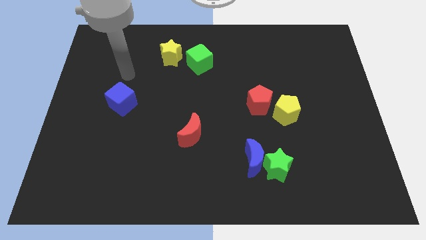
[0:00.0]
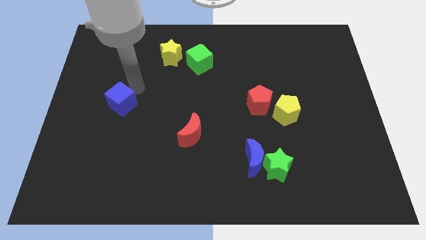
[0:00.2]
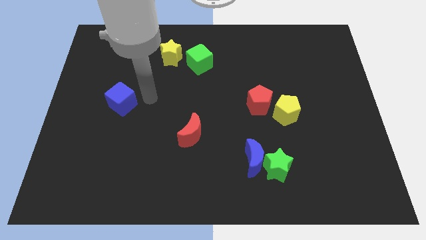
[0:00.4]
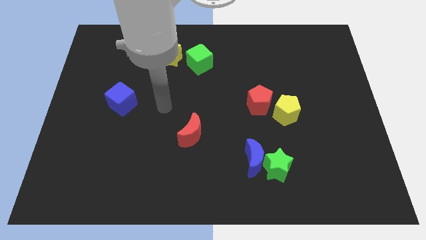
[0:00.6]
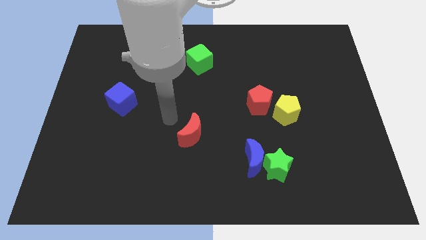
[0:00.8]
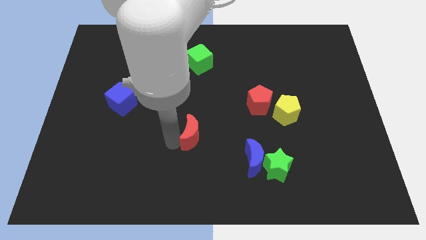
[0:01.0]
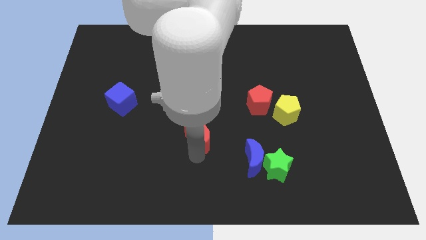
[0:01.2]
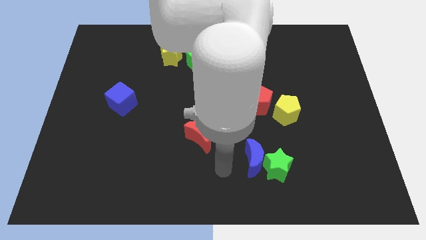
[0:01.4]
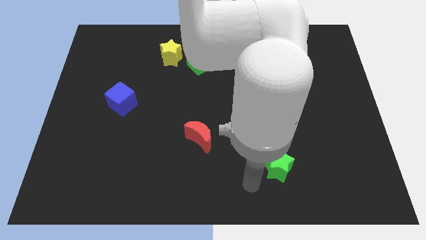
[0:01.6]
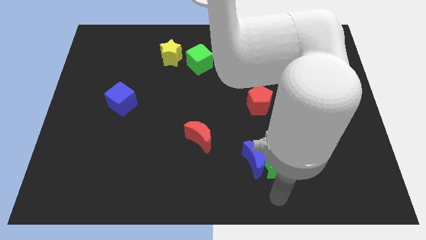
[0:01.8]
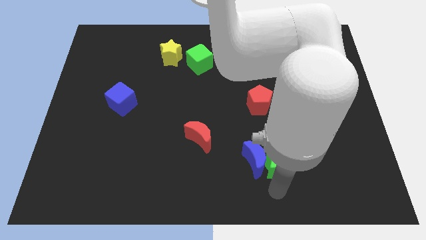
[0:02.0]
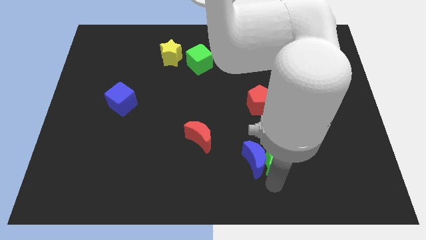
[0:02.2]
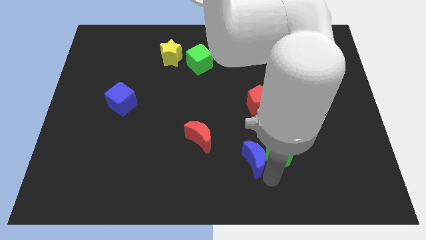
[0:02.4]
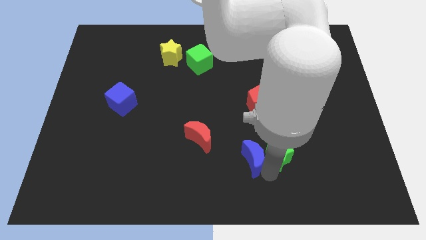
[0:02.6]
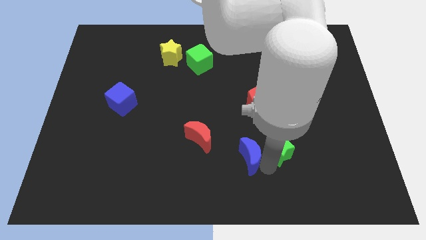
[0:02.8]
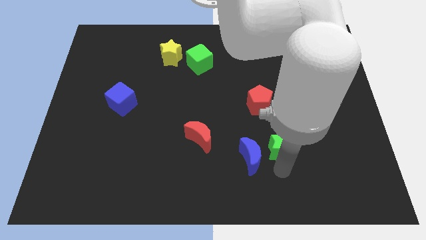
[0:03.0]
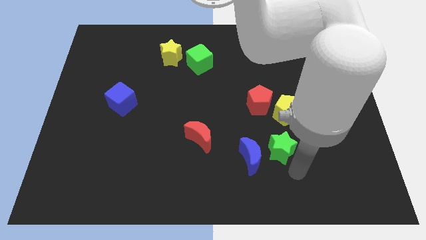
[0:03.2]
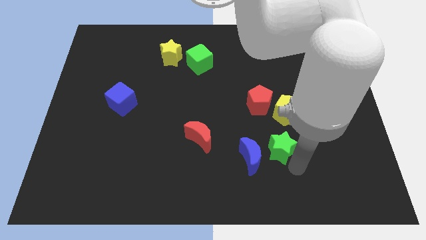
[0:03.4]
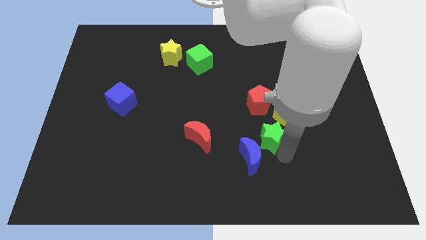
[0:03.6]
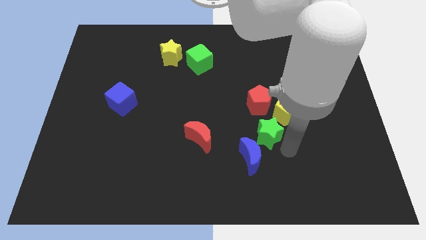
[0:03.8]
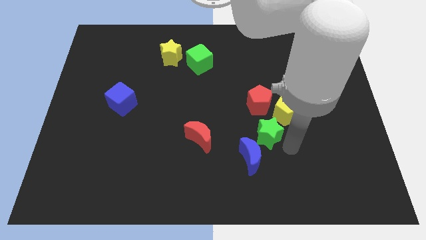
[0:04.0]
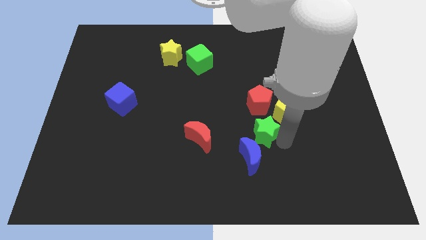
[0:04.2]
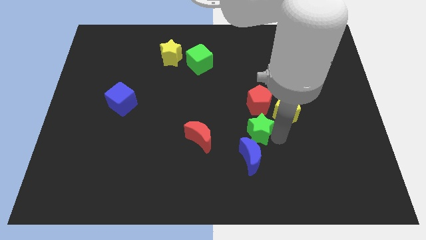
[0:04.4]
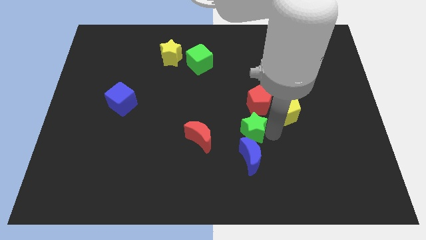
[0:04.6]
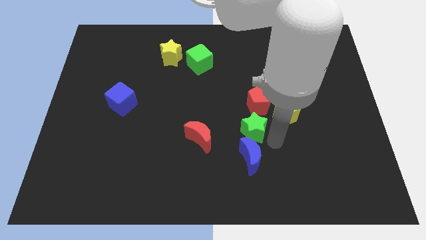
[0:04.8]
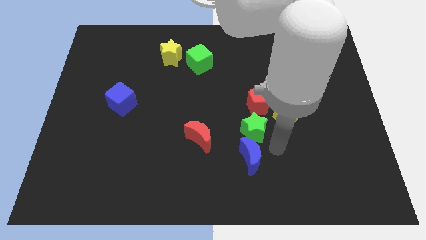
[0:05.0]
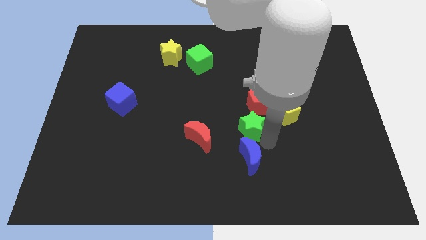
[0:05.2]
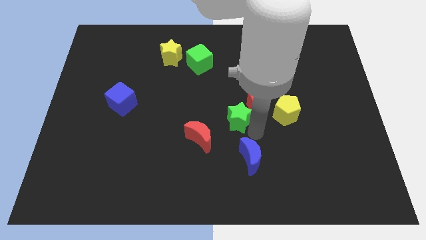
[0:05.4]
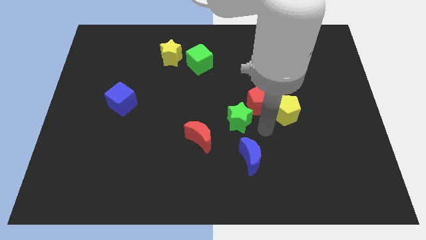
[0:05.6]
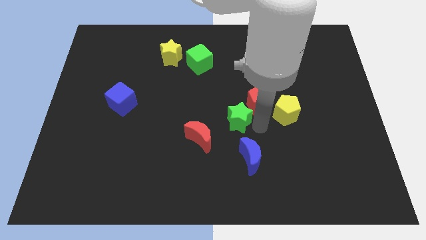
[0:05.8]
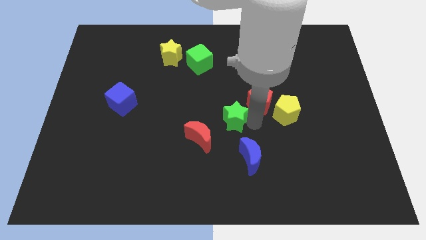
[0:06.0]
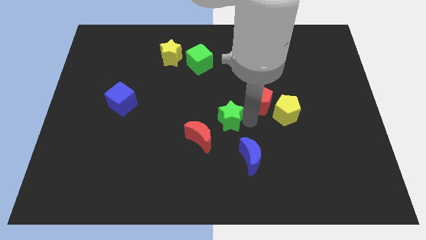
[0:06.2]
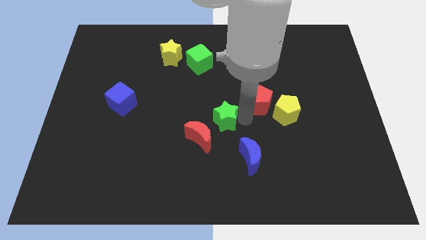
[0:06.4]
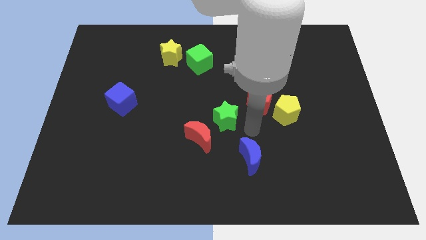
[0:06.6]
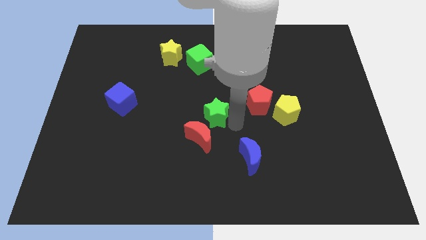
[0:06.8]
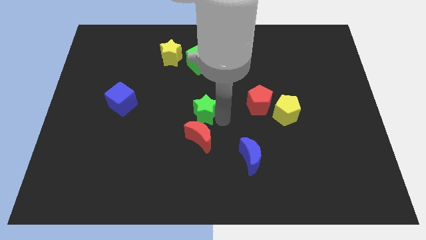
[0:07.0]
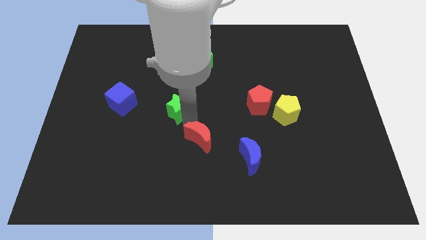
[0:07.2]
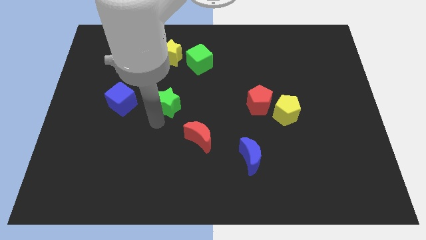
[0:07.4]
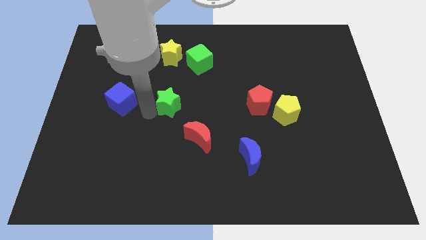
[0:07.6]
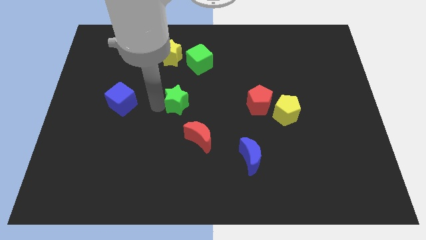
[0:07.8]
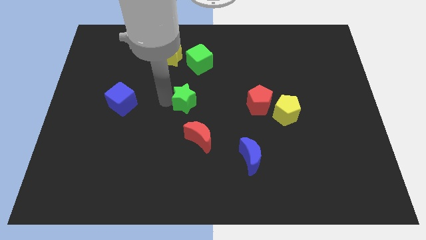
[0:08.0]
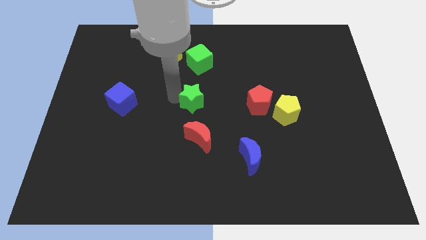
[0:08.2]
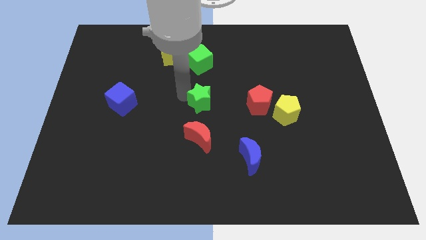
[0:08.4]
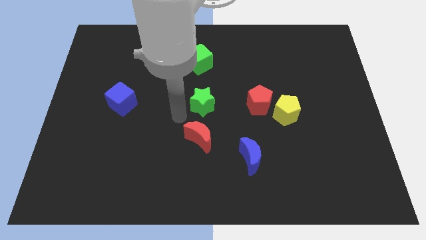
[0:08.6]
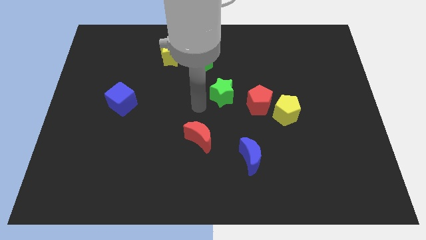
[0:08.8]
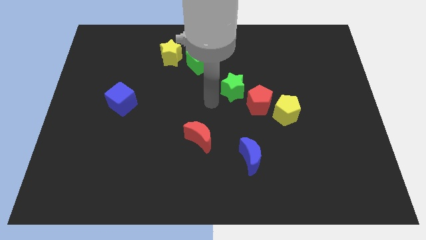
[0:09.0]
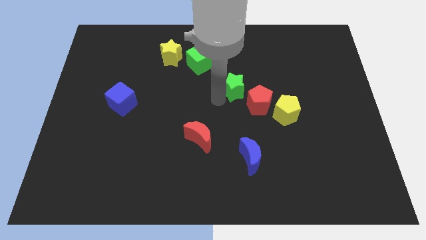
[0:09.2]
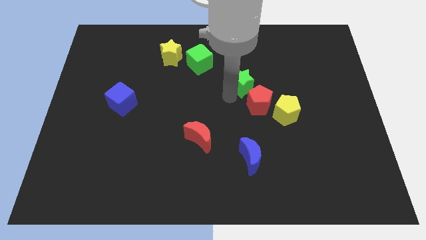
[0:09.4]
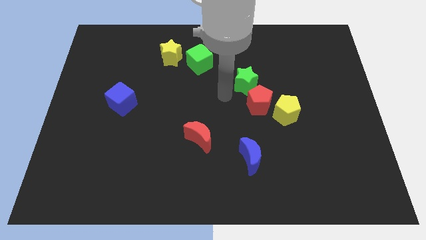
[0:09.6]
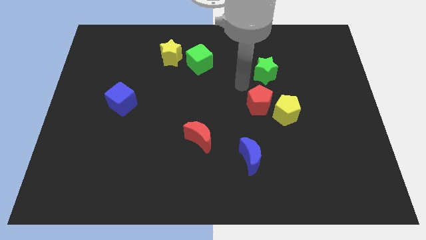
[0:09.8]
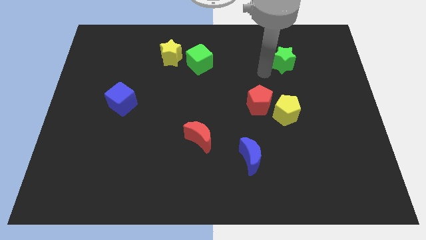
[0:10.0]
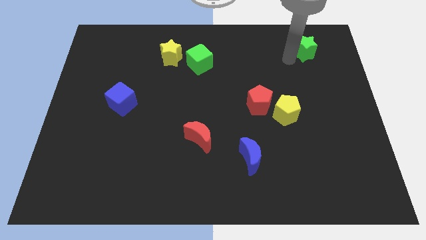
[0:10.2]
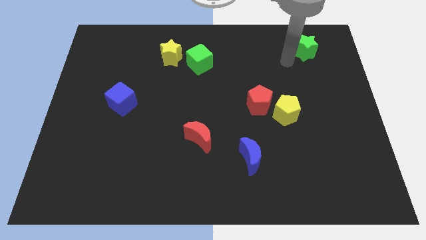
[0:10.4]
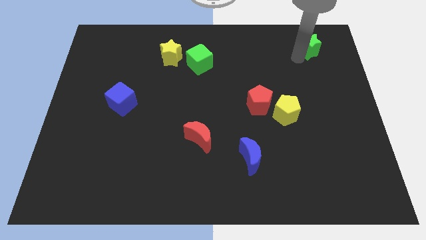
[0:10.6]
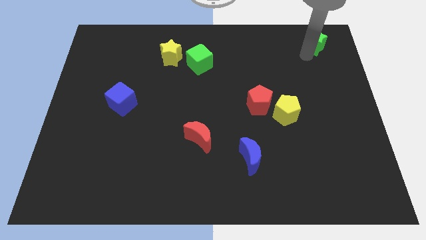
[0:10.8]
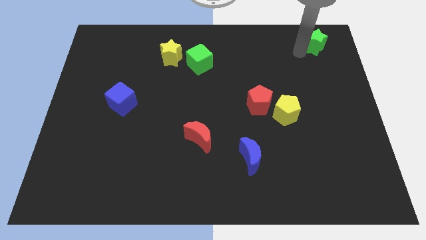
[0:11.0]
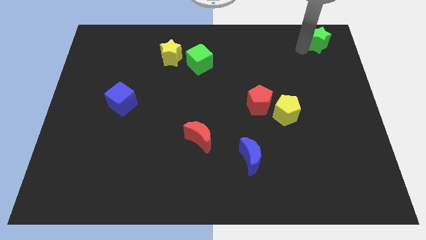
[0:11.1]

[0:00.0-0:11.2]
slide the green star to the top right corner

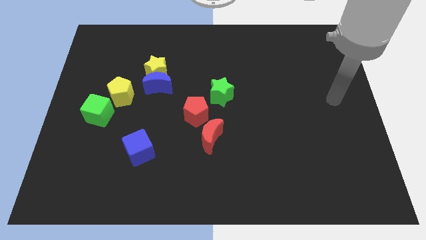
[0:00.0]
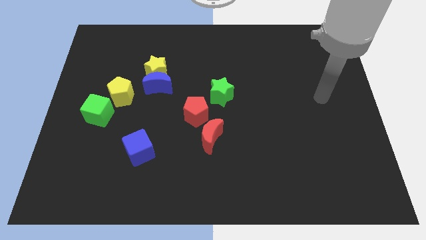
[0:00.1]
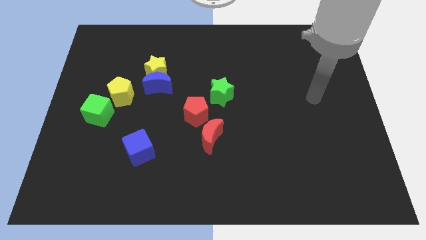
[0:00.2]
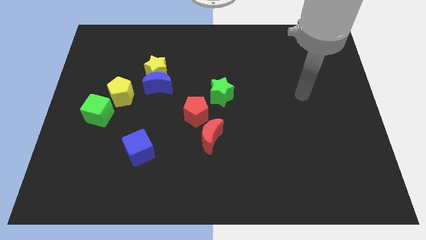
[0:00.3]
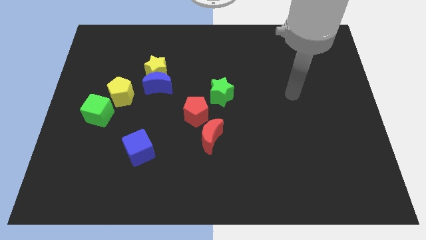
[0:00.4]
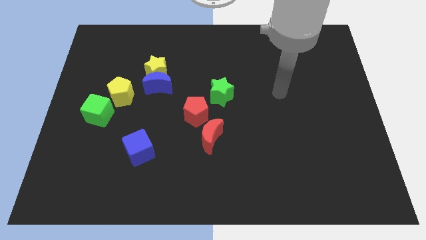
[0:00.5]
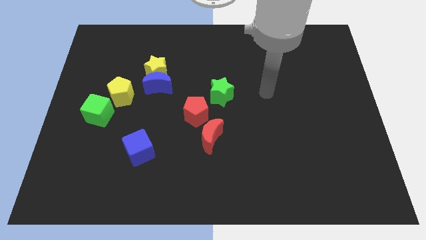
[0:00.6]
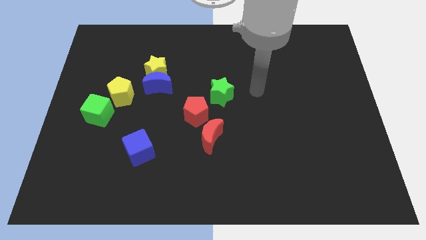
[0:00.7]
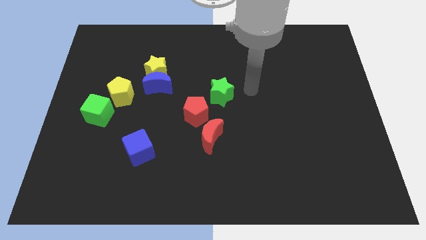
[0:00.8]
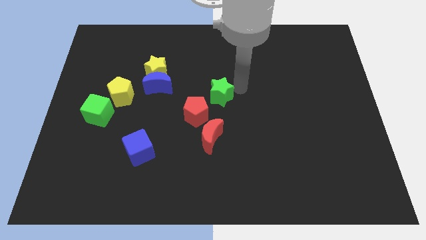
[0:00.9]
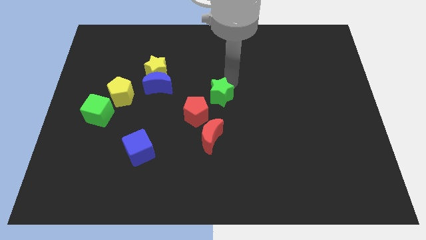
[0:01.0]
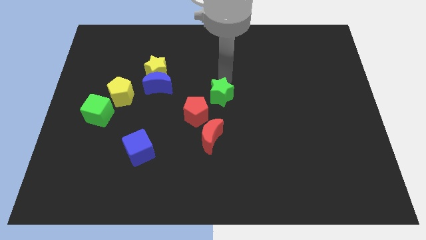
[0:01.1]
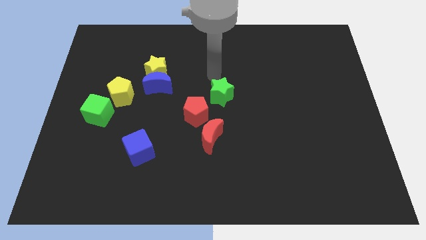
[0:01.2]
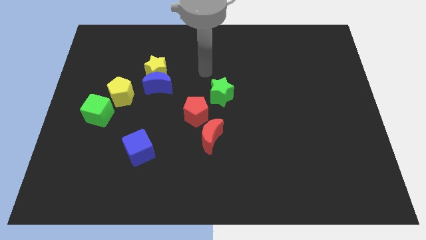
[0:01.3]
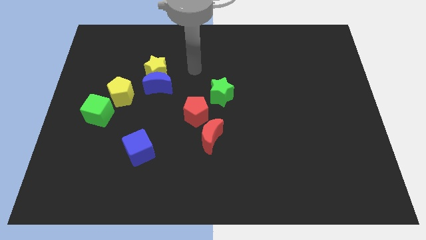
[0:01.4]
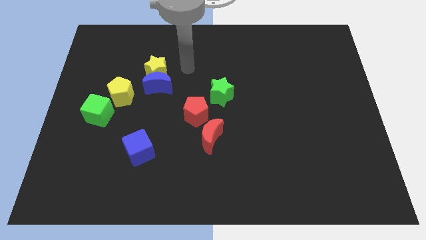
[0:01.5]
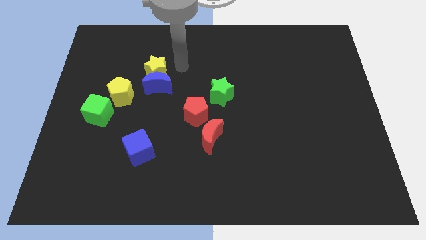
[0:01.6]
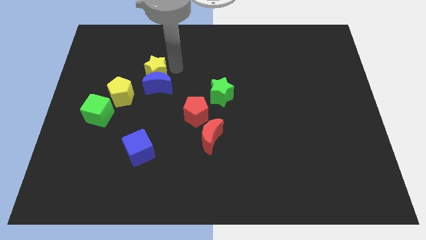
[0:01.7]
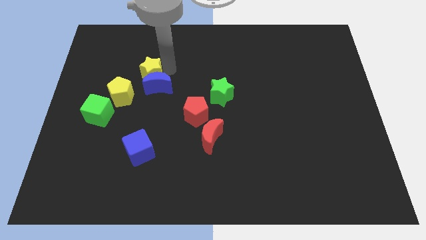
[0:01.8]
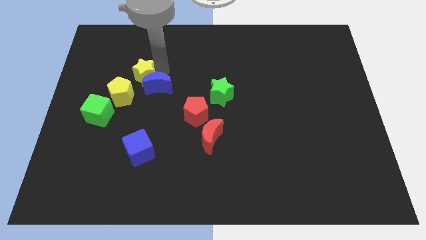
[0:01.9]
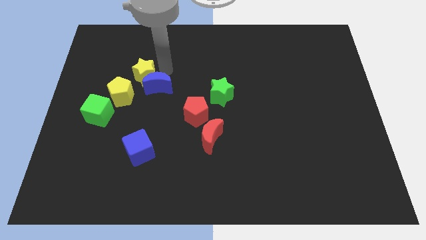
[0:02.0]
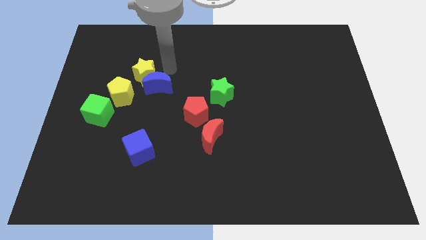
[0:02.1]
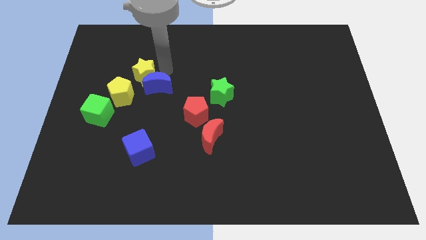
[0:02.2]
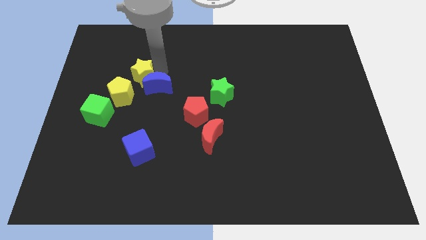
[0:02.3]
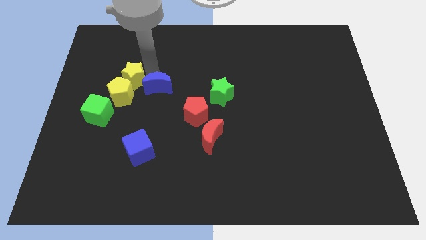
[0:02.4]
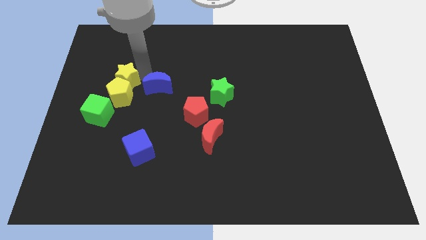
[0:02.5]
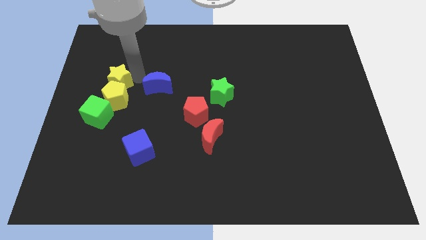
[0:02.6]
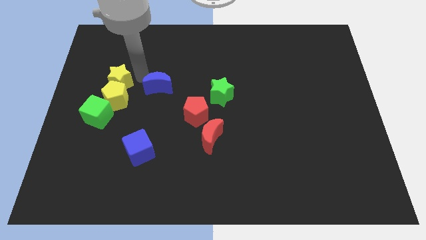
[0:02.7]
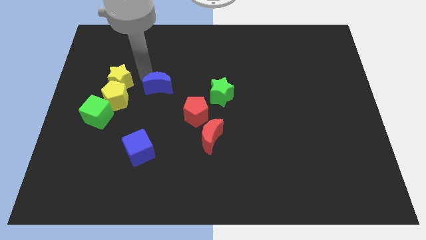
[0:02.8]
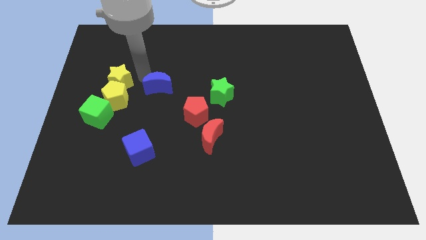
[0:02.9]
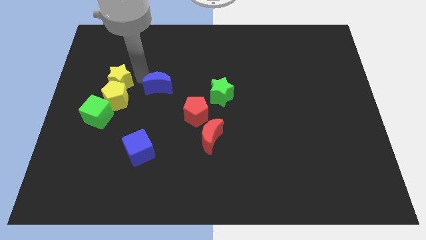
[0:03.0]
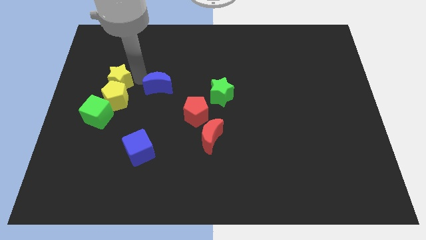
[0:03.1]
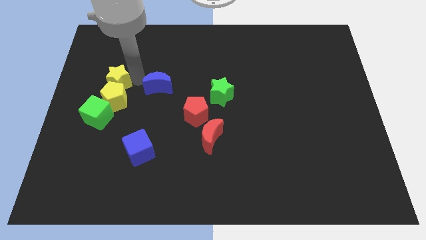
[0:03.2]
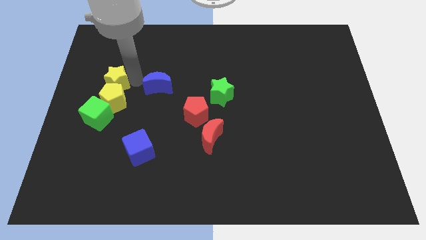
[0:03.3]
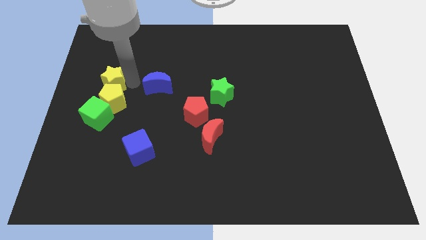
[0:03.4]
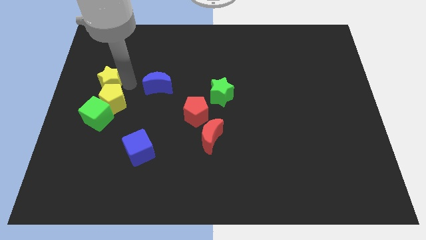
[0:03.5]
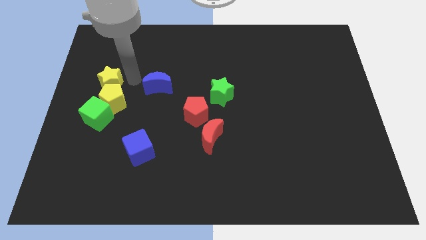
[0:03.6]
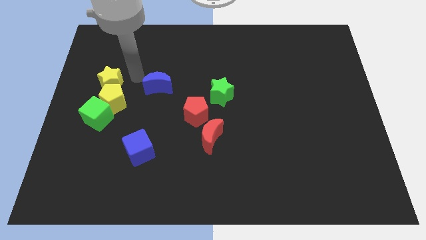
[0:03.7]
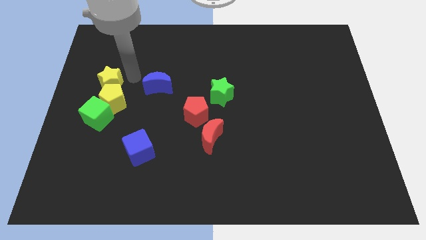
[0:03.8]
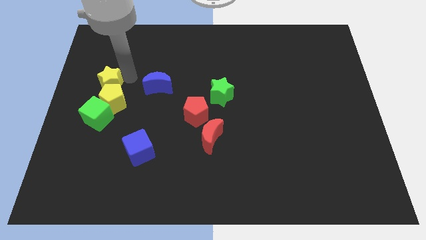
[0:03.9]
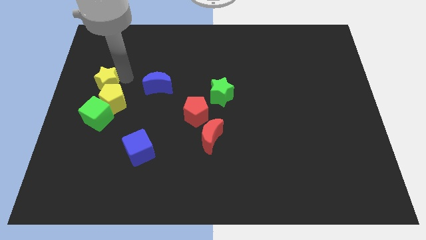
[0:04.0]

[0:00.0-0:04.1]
move the yellow star to the left side
